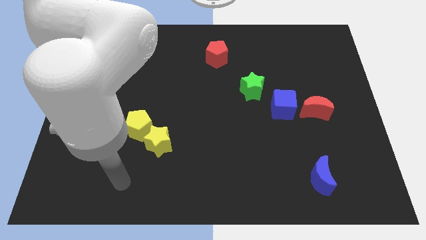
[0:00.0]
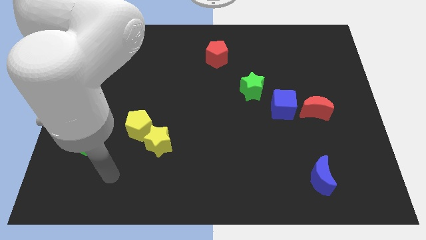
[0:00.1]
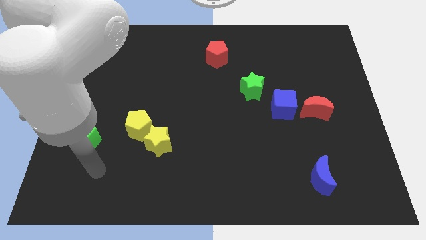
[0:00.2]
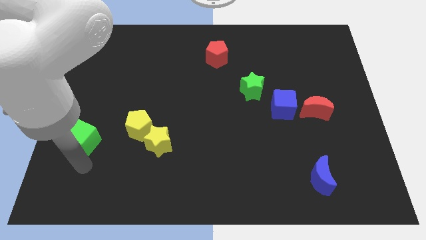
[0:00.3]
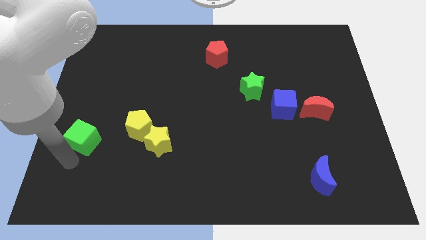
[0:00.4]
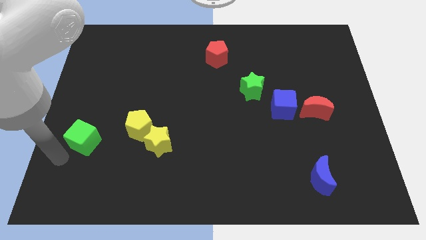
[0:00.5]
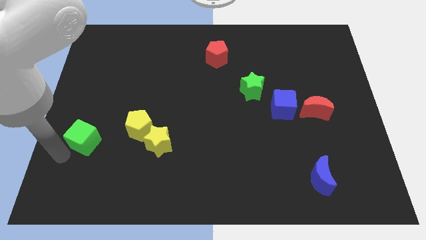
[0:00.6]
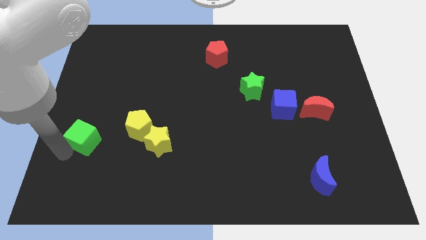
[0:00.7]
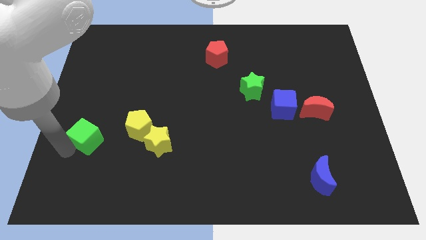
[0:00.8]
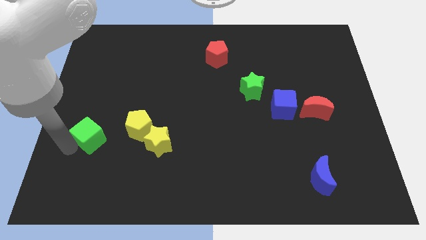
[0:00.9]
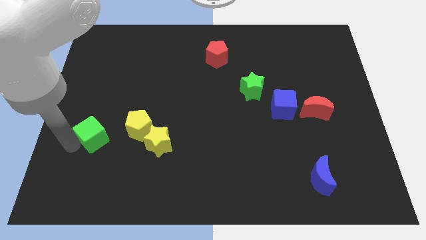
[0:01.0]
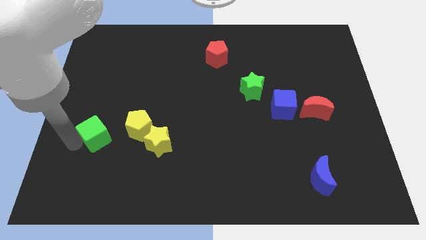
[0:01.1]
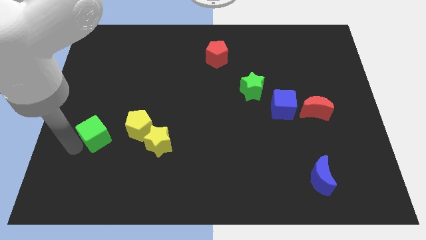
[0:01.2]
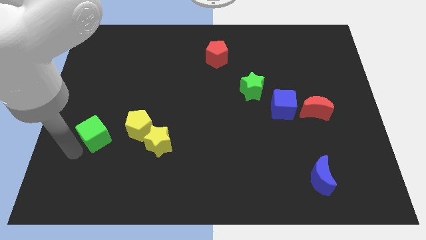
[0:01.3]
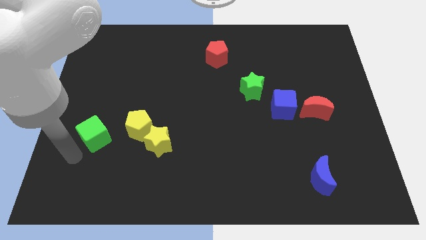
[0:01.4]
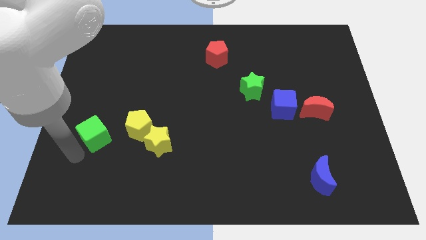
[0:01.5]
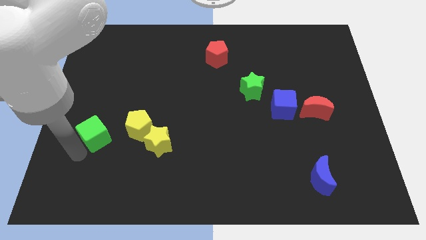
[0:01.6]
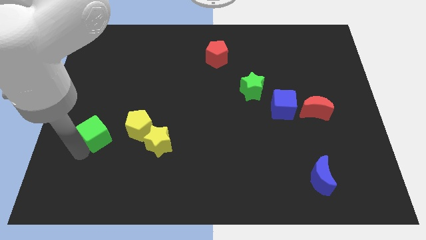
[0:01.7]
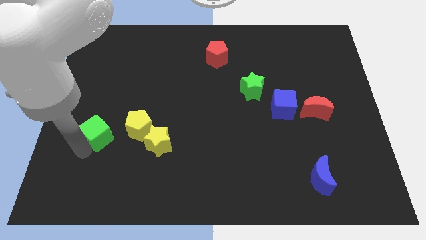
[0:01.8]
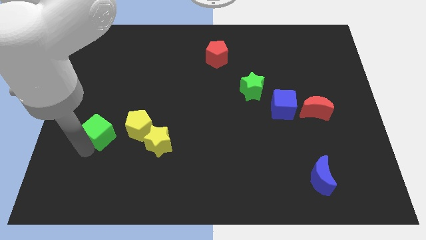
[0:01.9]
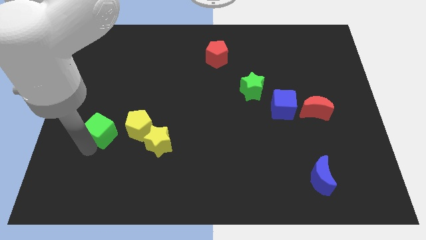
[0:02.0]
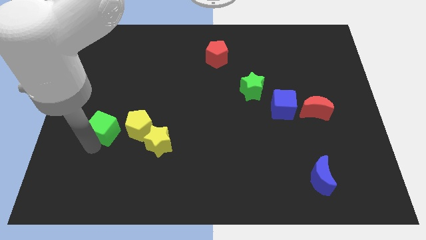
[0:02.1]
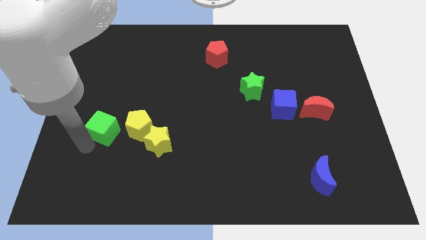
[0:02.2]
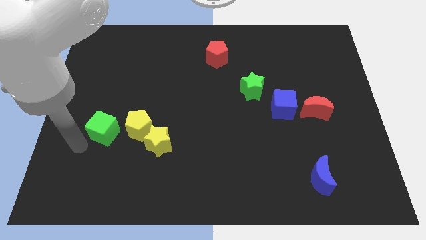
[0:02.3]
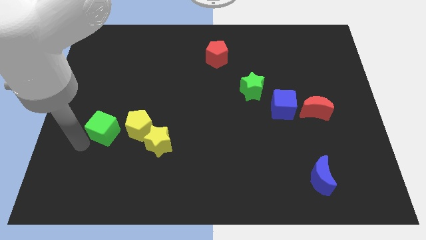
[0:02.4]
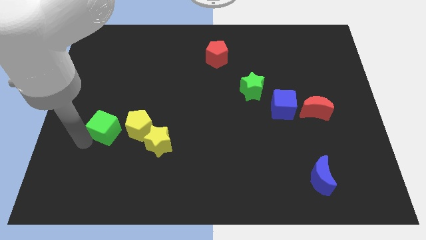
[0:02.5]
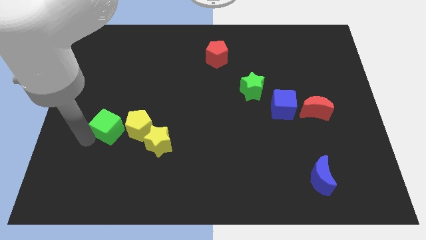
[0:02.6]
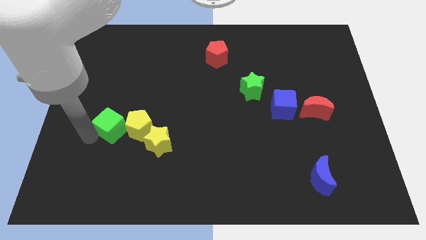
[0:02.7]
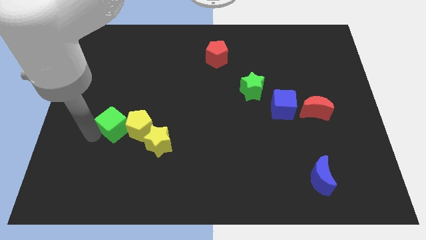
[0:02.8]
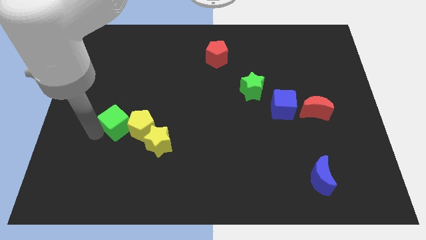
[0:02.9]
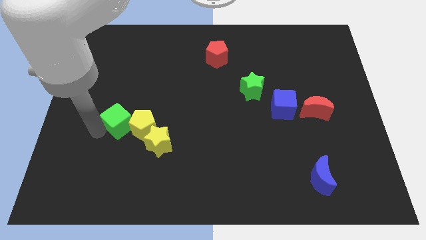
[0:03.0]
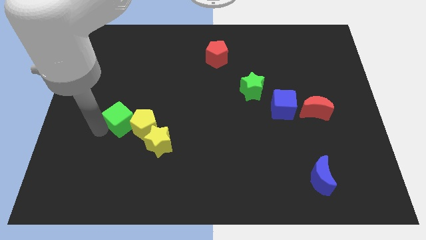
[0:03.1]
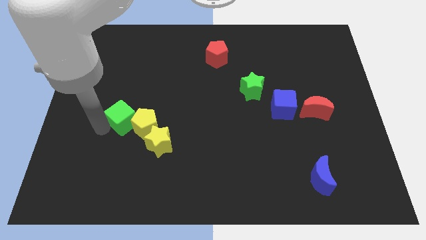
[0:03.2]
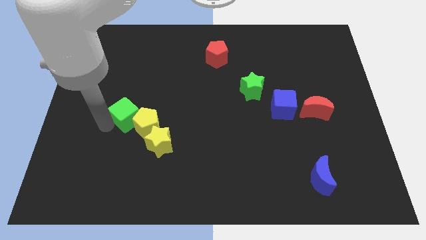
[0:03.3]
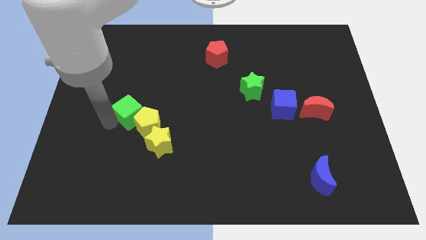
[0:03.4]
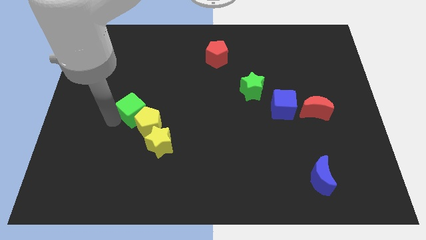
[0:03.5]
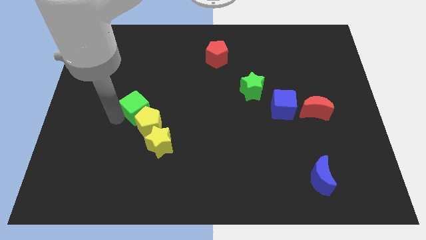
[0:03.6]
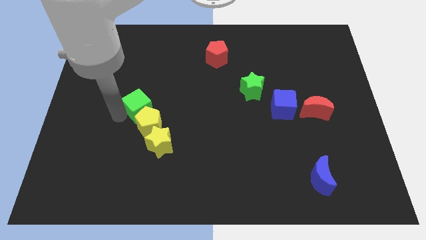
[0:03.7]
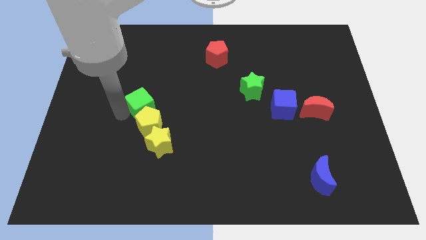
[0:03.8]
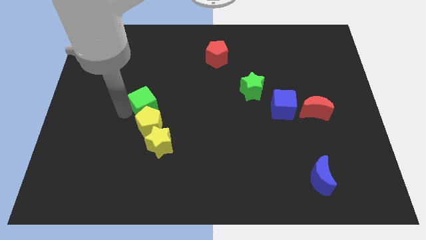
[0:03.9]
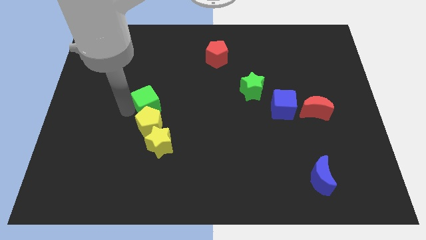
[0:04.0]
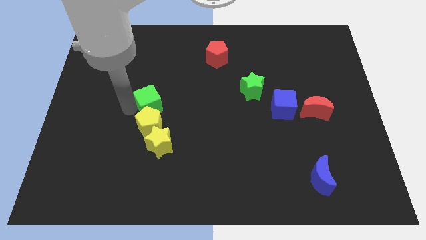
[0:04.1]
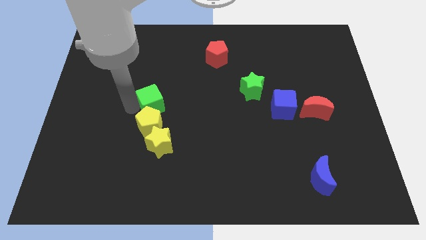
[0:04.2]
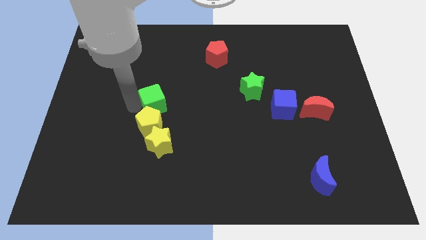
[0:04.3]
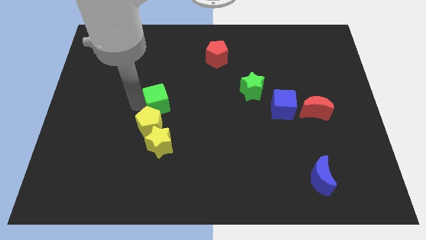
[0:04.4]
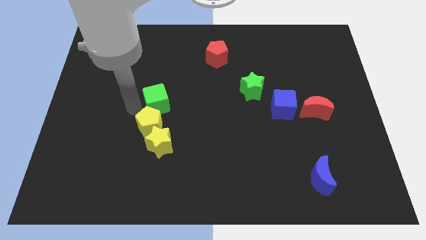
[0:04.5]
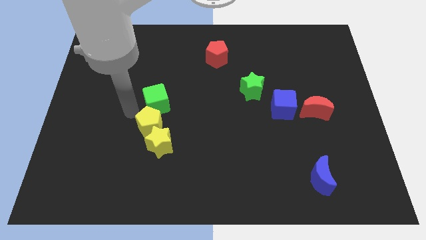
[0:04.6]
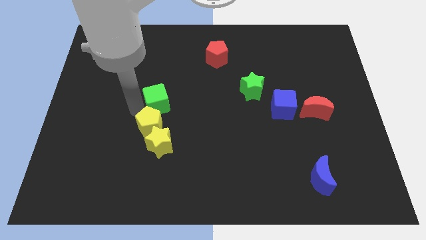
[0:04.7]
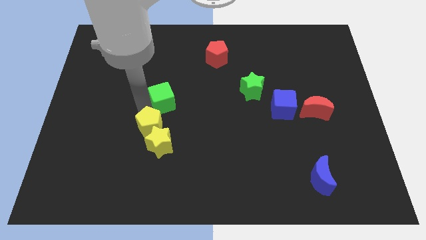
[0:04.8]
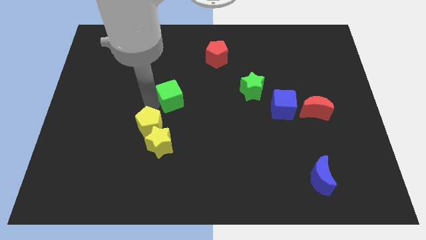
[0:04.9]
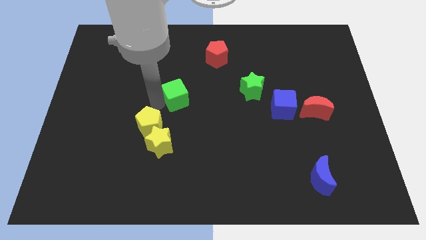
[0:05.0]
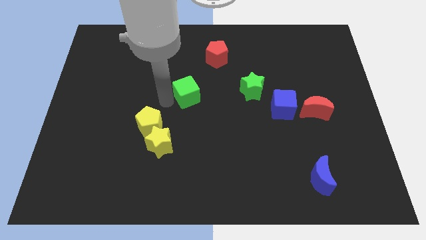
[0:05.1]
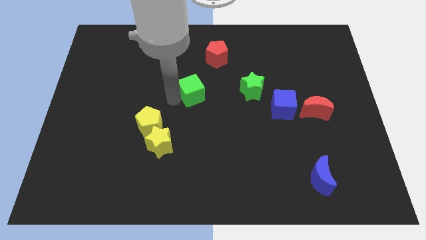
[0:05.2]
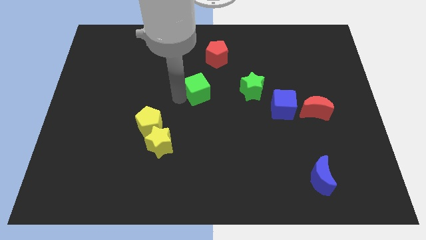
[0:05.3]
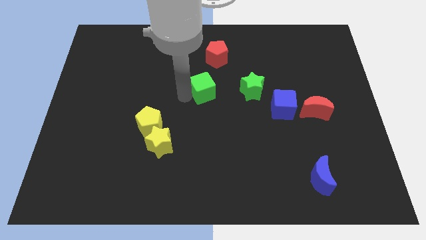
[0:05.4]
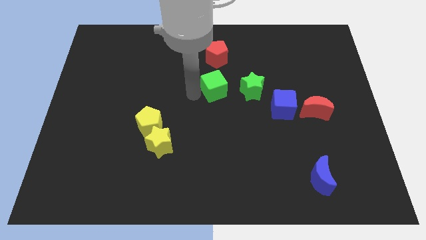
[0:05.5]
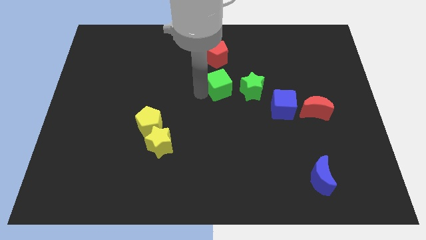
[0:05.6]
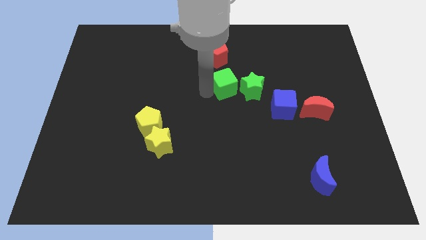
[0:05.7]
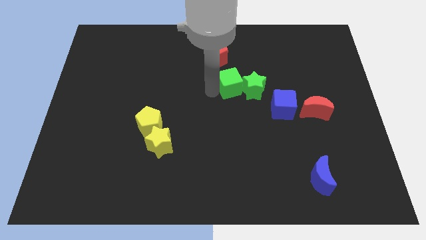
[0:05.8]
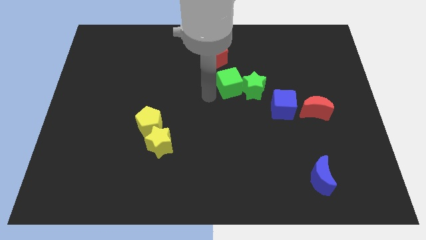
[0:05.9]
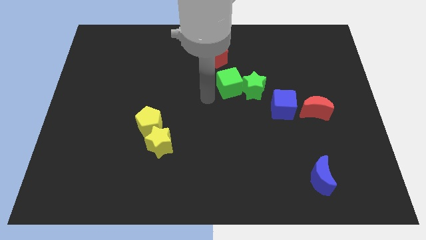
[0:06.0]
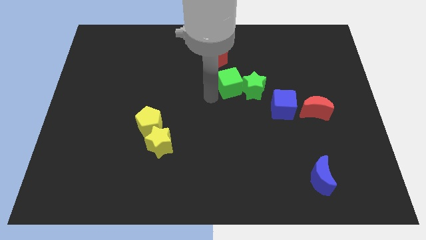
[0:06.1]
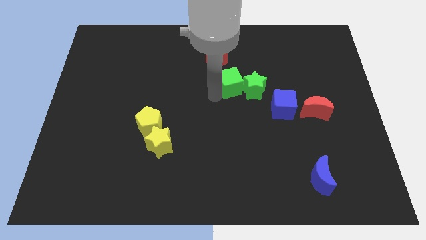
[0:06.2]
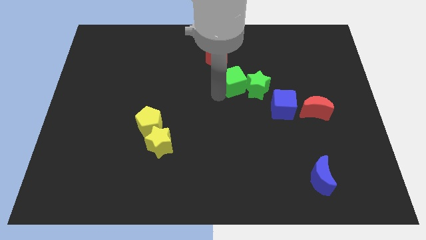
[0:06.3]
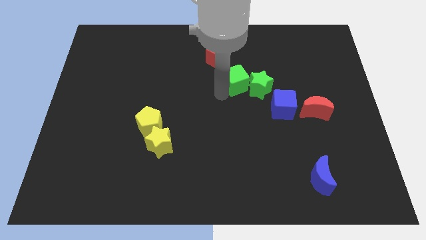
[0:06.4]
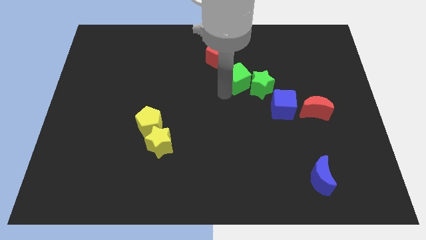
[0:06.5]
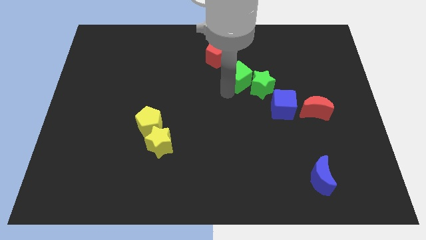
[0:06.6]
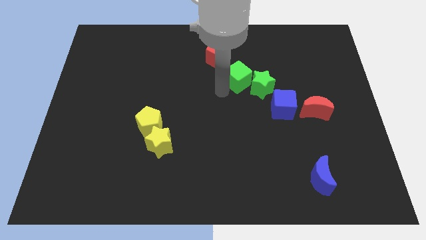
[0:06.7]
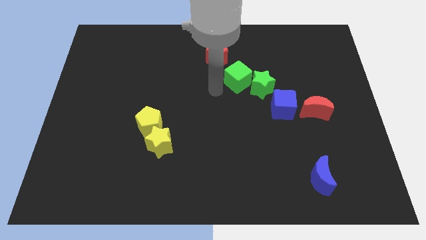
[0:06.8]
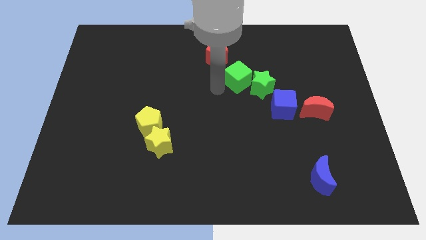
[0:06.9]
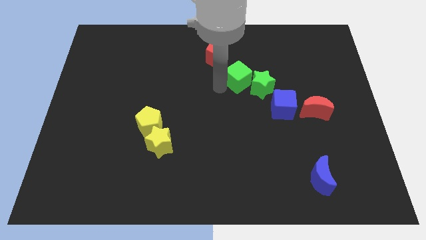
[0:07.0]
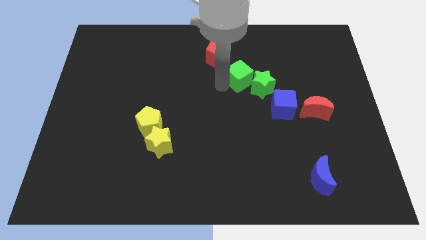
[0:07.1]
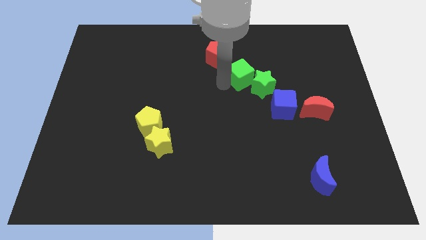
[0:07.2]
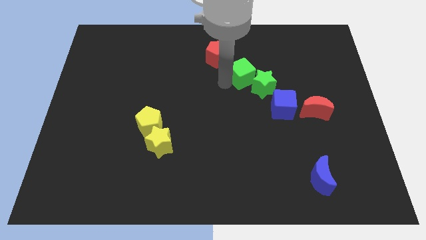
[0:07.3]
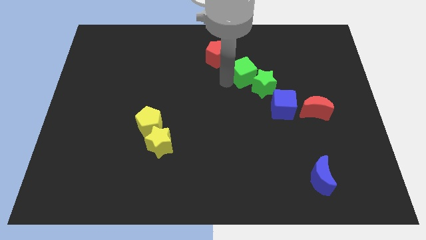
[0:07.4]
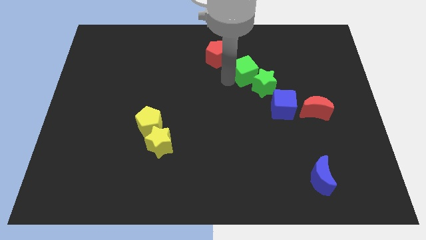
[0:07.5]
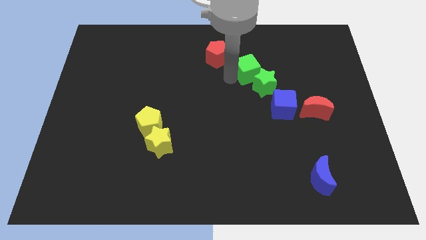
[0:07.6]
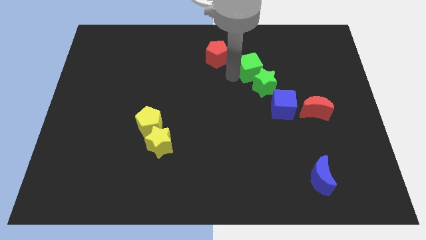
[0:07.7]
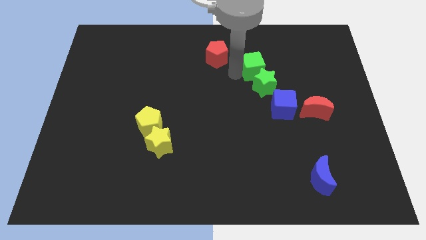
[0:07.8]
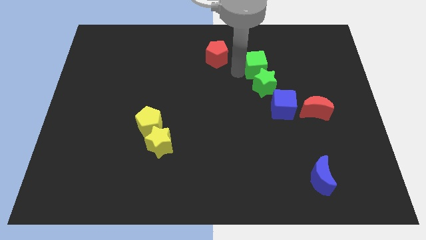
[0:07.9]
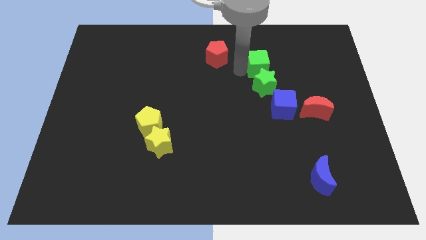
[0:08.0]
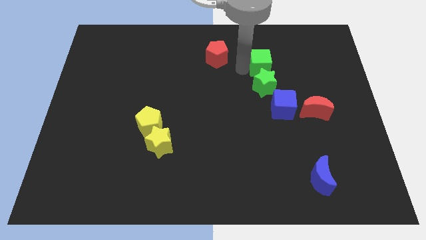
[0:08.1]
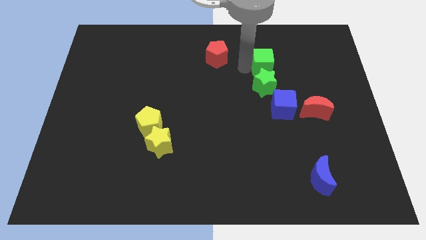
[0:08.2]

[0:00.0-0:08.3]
push the green cube to the top right side of the green star
